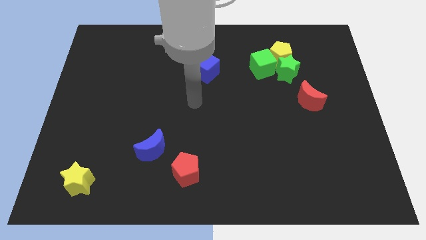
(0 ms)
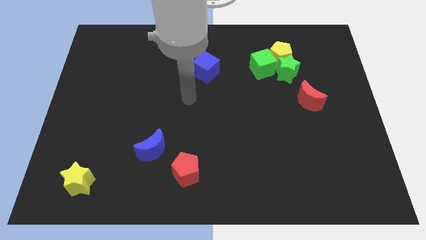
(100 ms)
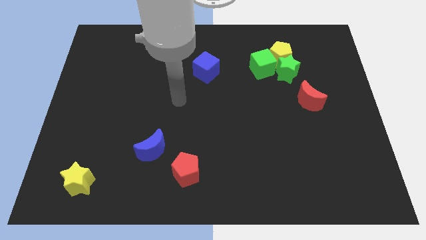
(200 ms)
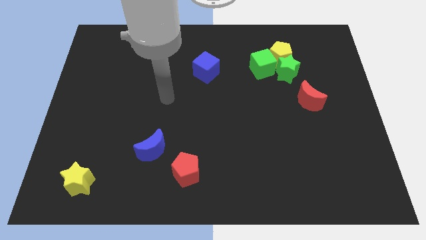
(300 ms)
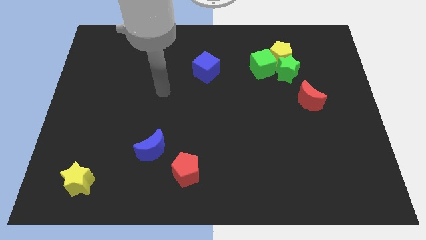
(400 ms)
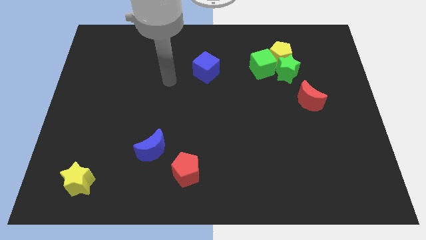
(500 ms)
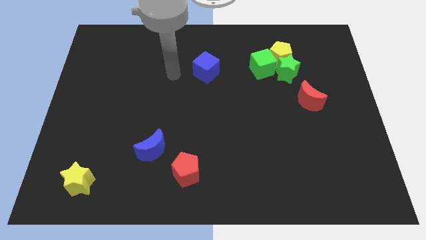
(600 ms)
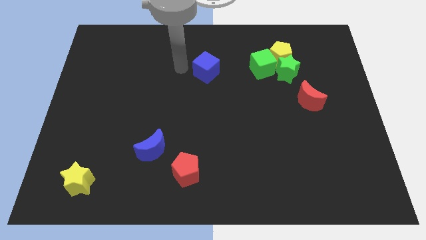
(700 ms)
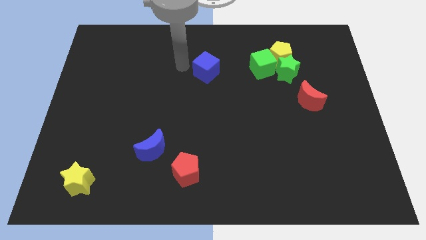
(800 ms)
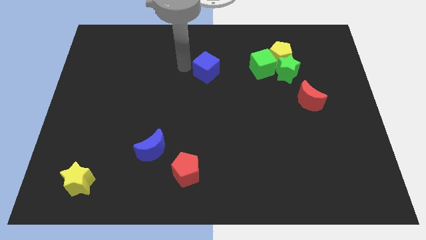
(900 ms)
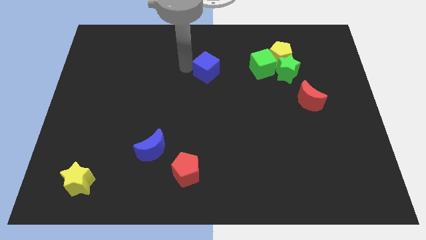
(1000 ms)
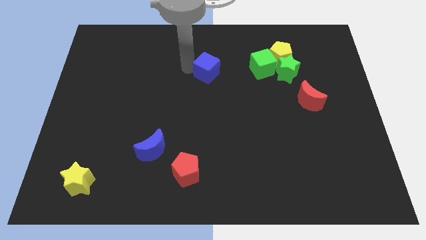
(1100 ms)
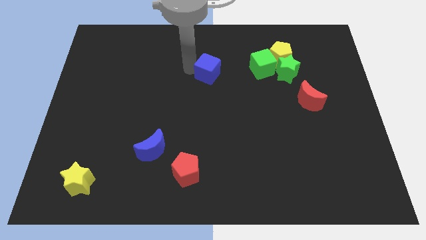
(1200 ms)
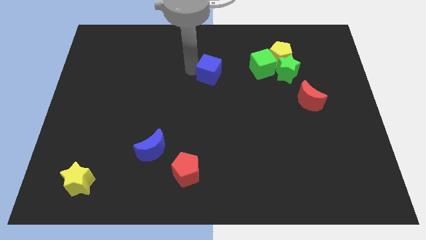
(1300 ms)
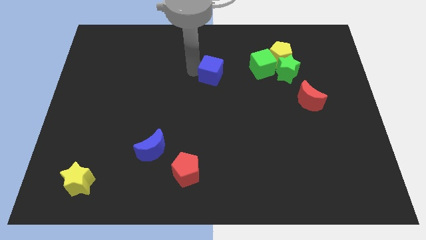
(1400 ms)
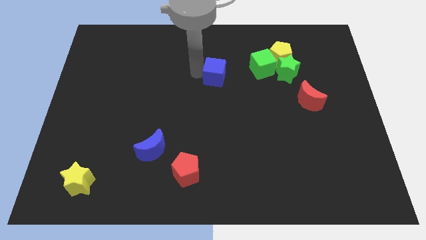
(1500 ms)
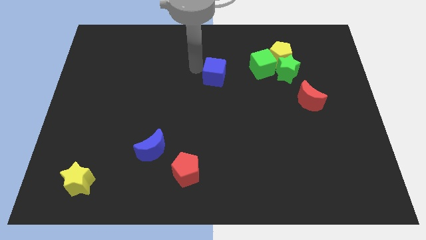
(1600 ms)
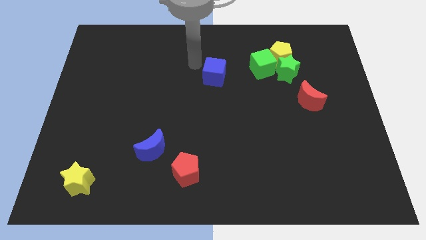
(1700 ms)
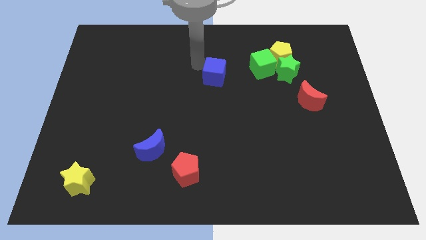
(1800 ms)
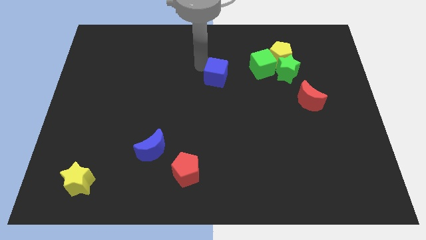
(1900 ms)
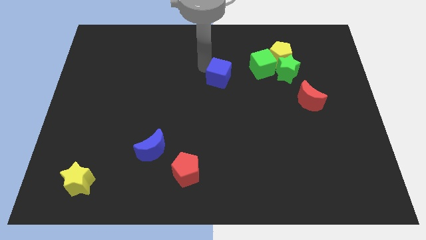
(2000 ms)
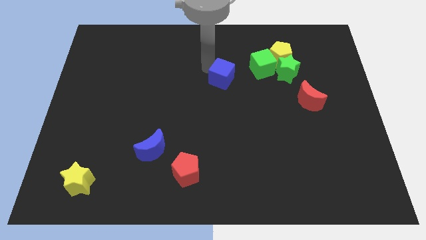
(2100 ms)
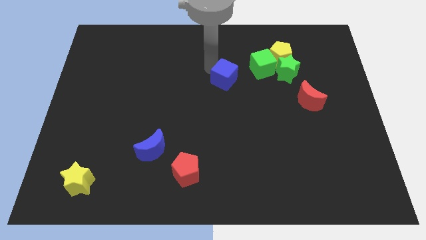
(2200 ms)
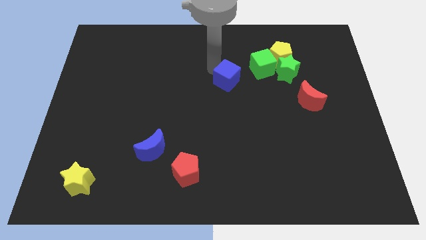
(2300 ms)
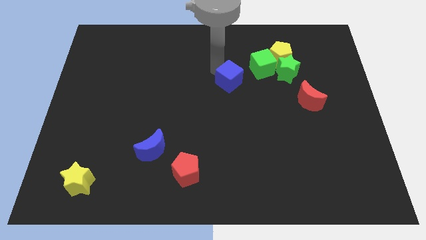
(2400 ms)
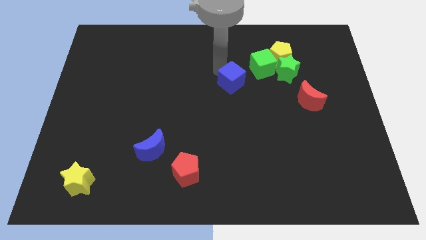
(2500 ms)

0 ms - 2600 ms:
slightly move the blue cube down and then to the right

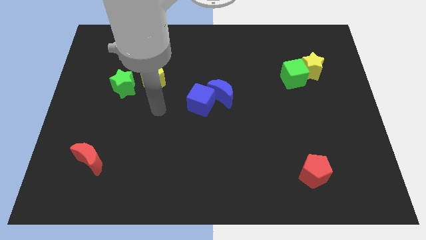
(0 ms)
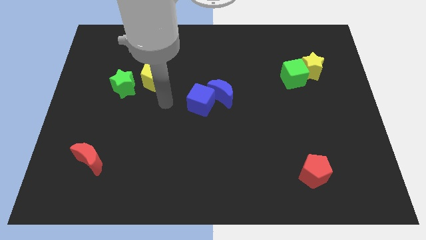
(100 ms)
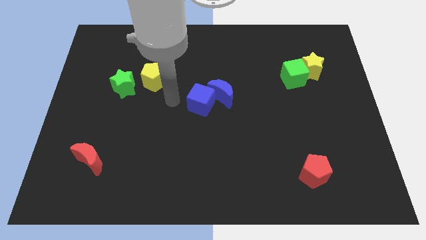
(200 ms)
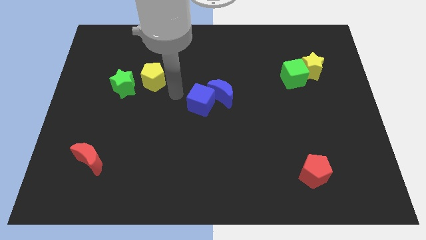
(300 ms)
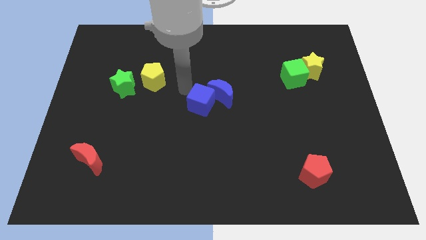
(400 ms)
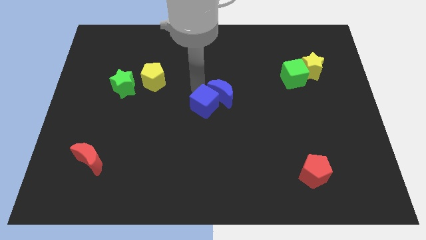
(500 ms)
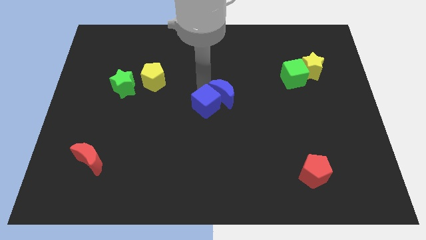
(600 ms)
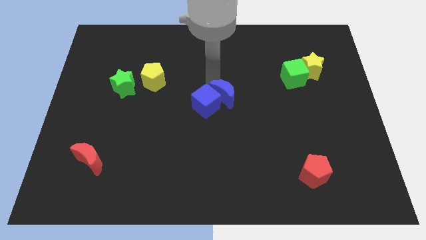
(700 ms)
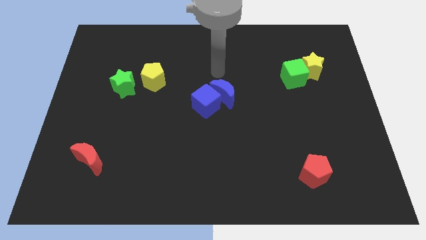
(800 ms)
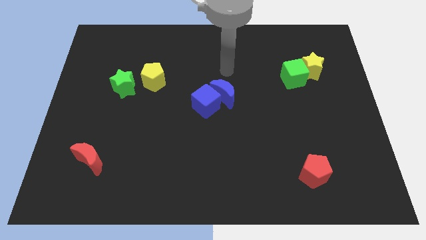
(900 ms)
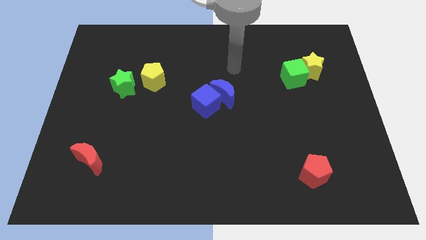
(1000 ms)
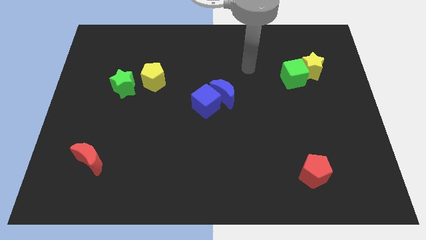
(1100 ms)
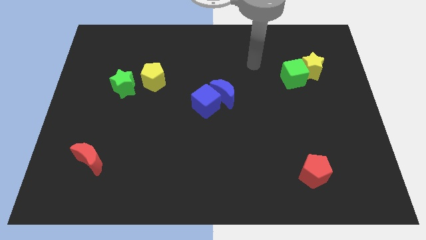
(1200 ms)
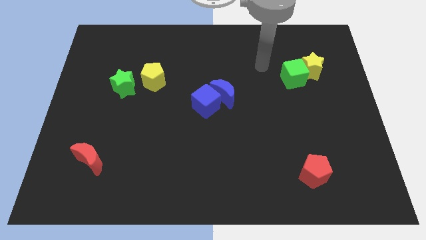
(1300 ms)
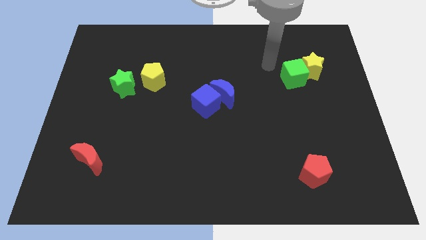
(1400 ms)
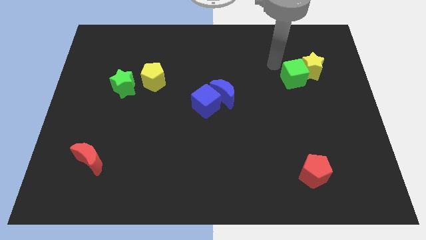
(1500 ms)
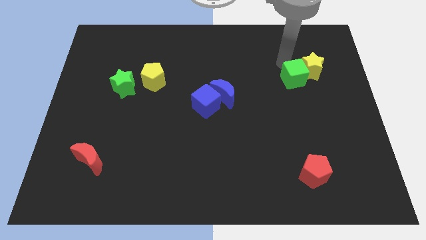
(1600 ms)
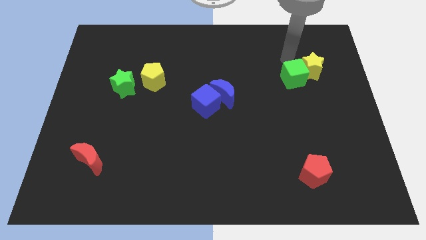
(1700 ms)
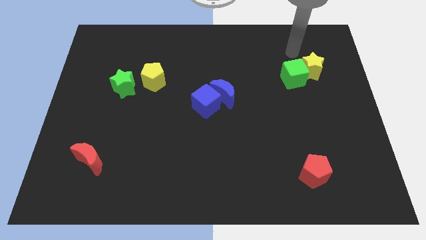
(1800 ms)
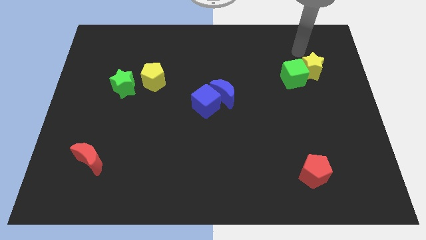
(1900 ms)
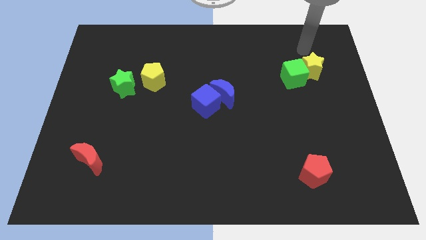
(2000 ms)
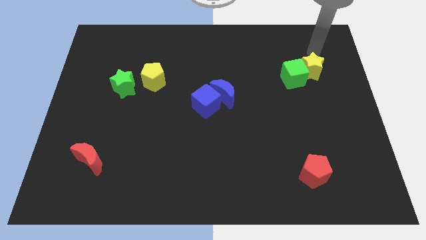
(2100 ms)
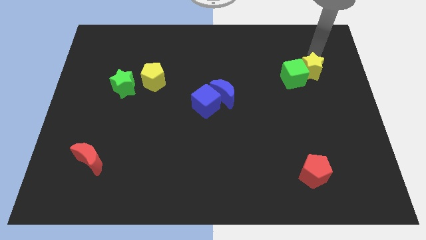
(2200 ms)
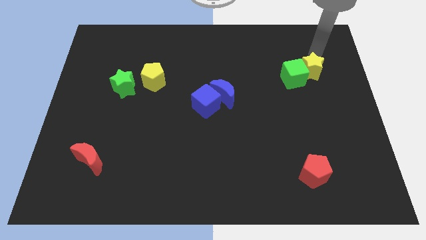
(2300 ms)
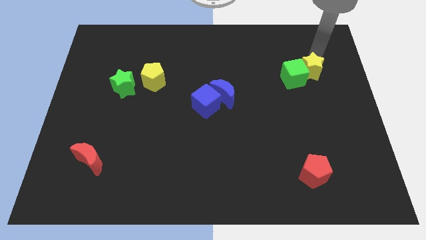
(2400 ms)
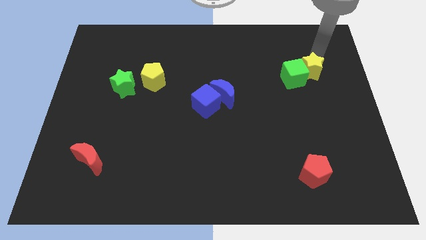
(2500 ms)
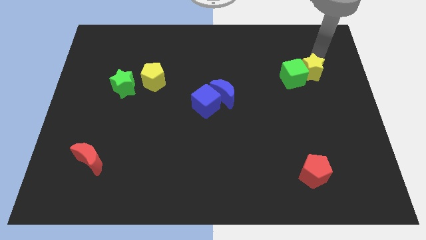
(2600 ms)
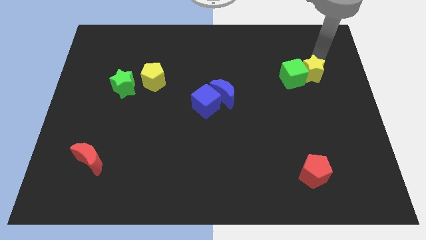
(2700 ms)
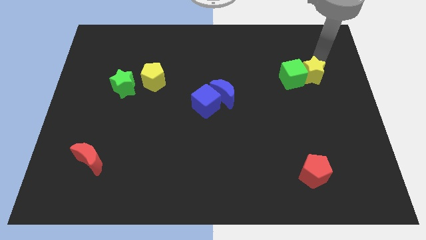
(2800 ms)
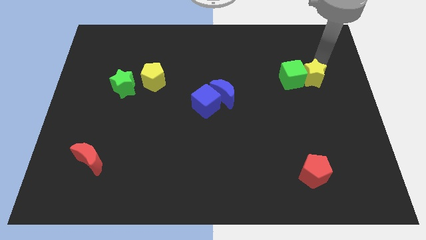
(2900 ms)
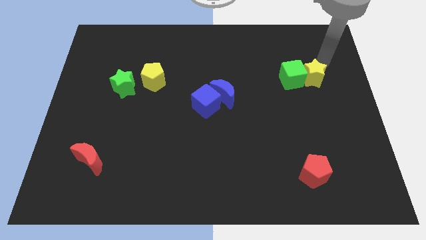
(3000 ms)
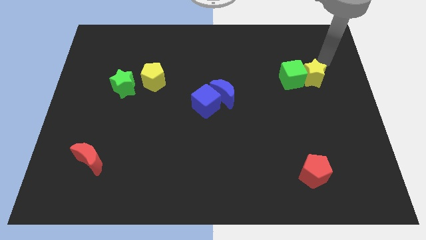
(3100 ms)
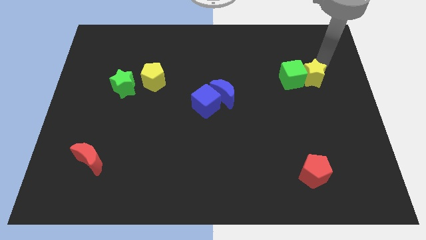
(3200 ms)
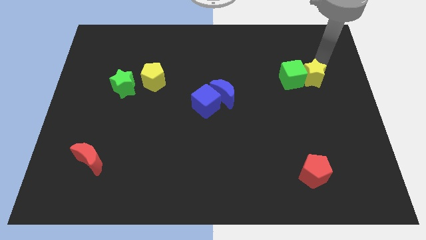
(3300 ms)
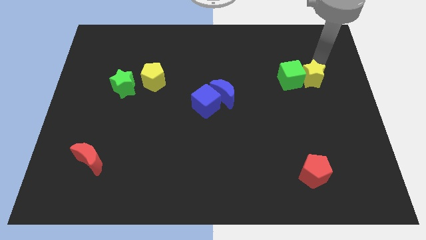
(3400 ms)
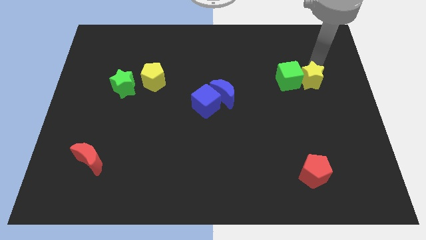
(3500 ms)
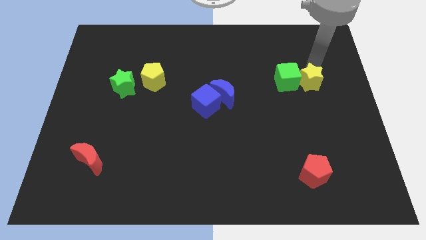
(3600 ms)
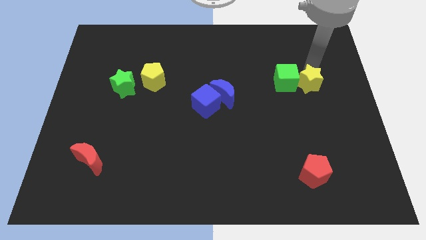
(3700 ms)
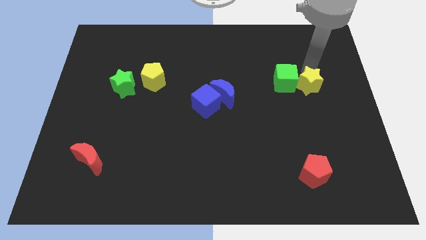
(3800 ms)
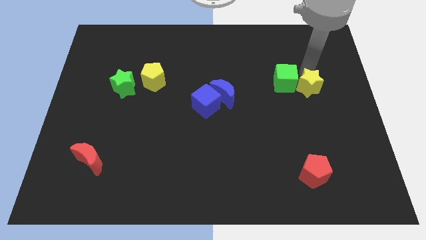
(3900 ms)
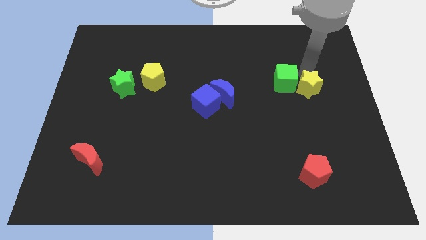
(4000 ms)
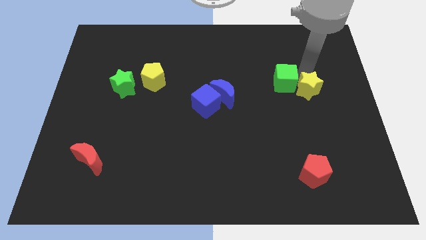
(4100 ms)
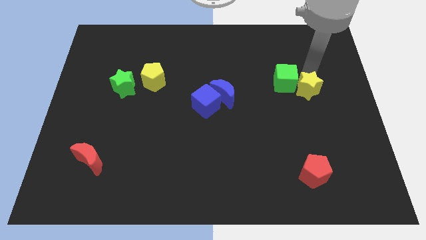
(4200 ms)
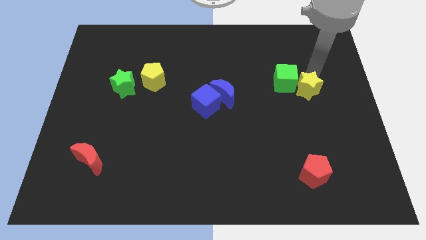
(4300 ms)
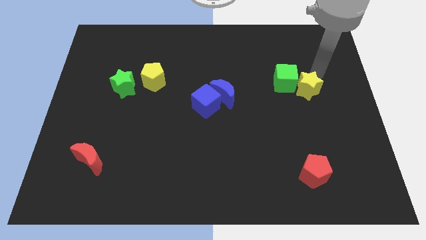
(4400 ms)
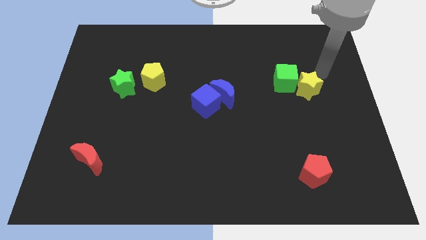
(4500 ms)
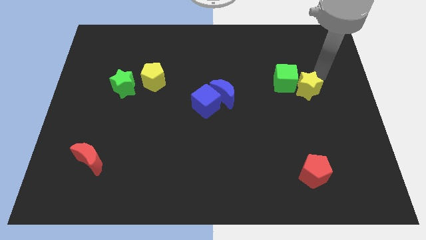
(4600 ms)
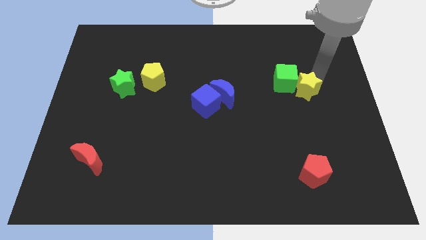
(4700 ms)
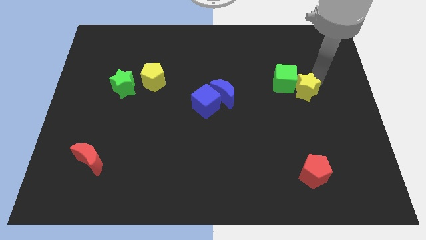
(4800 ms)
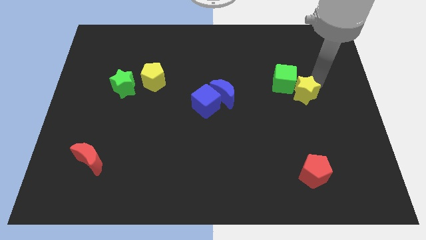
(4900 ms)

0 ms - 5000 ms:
slightly push the yellow star down and to the left diagonally

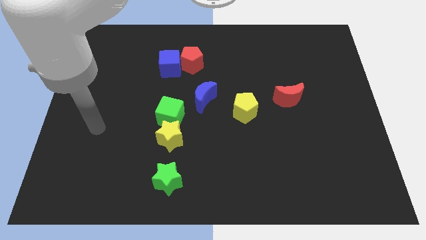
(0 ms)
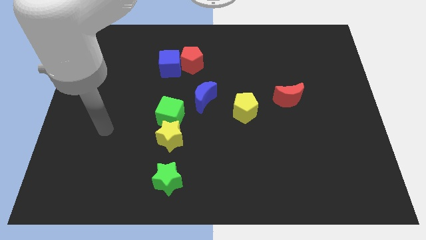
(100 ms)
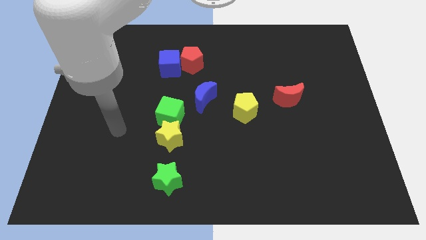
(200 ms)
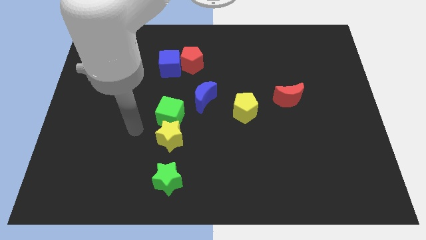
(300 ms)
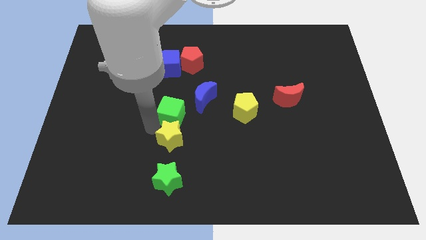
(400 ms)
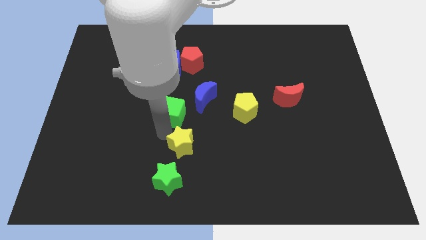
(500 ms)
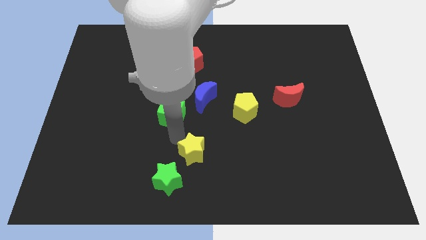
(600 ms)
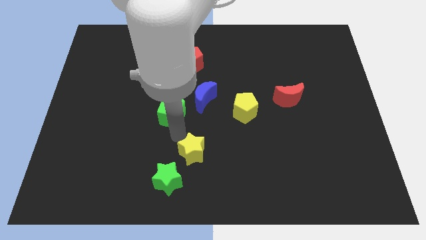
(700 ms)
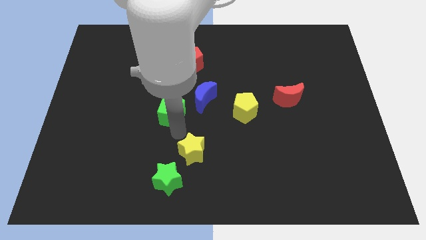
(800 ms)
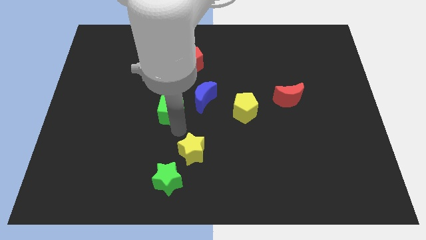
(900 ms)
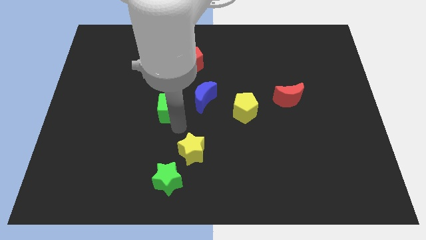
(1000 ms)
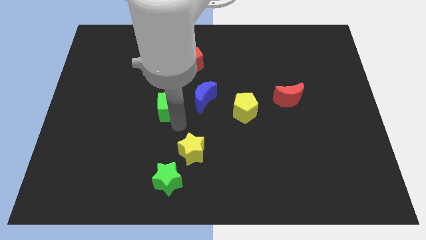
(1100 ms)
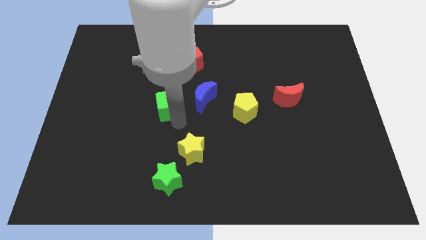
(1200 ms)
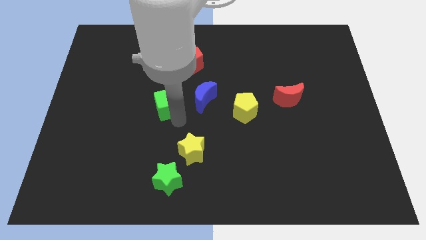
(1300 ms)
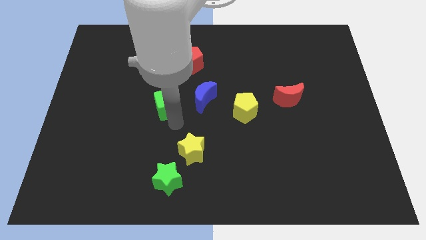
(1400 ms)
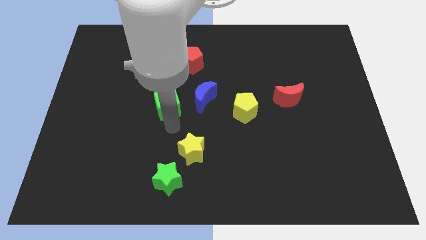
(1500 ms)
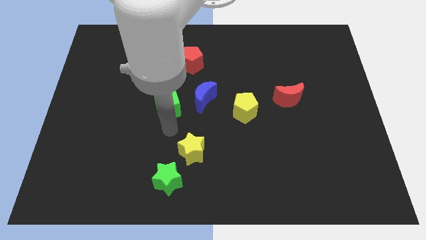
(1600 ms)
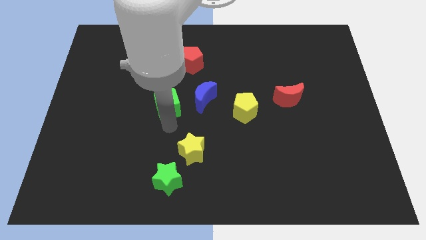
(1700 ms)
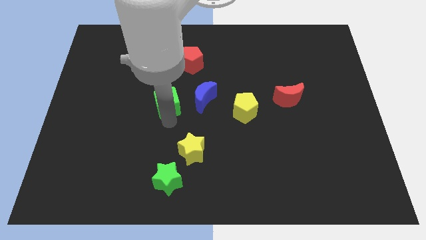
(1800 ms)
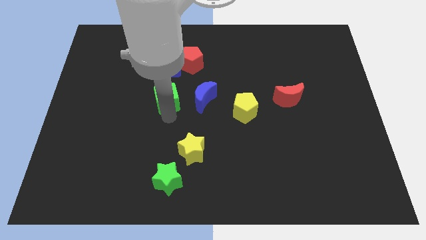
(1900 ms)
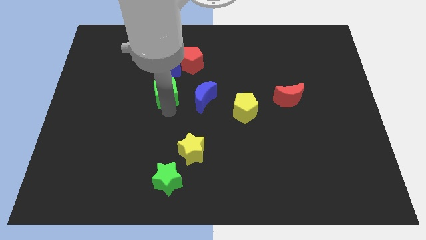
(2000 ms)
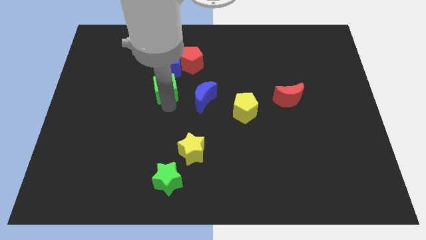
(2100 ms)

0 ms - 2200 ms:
move the green cube a little upwards
